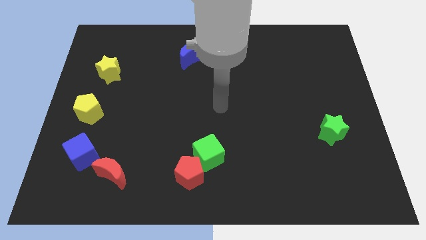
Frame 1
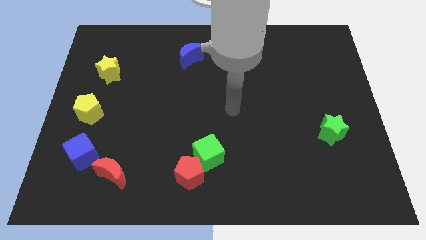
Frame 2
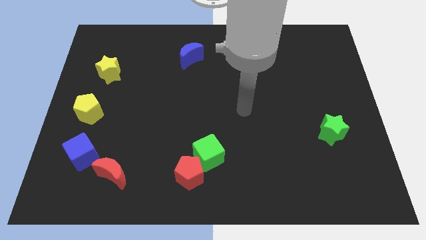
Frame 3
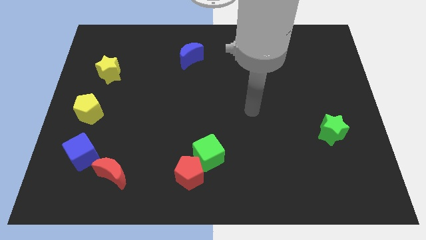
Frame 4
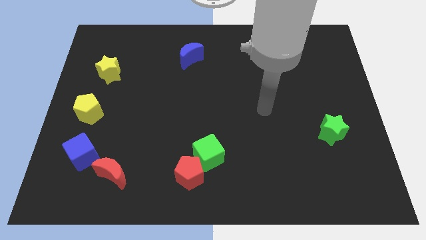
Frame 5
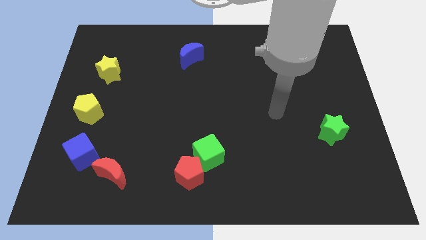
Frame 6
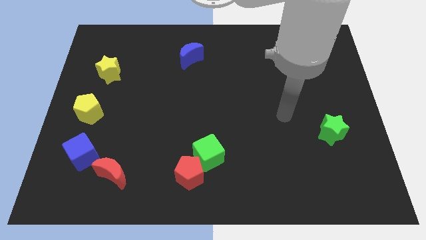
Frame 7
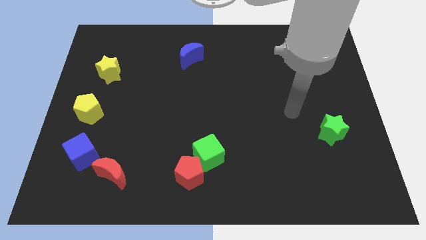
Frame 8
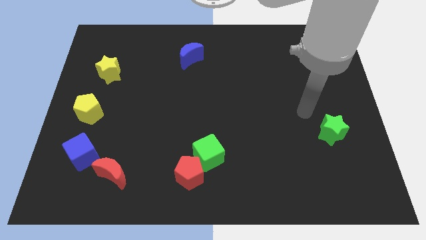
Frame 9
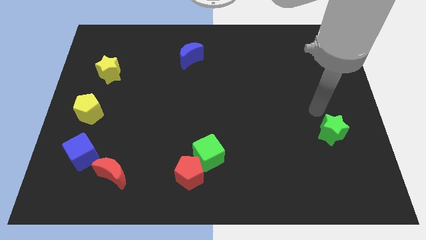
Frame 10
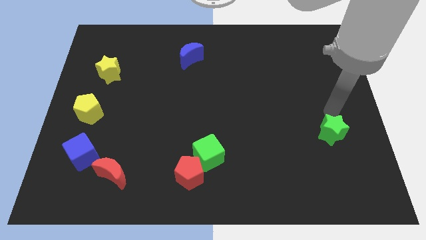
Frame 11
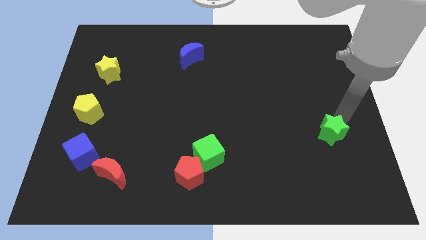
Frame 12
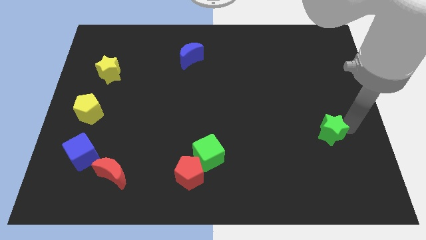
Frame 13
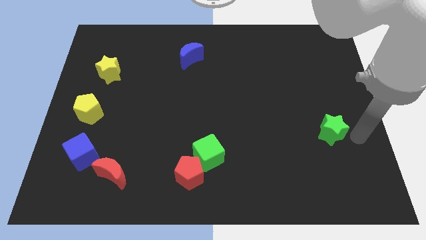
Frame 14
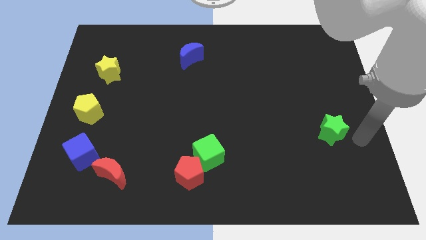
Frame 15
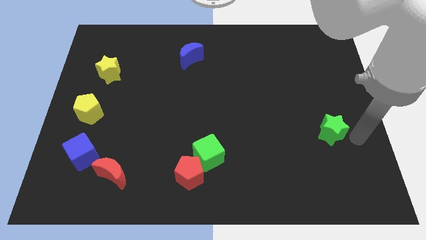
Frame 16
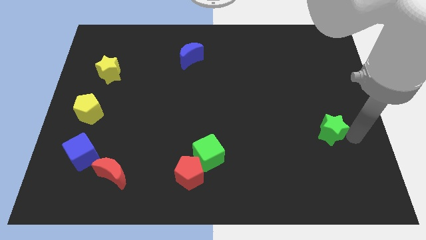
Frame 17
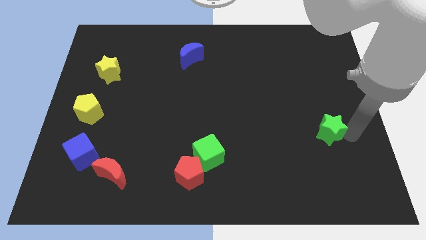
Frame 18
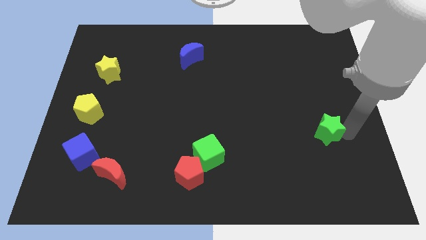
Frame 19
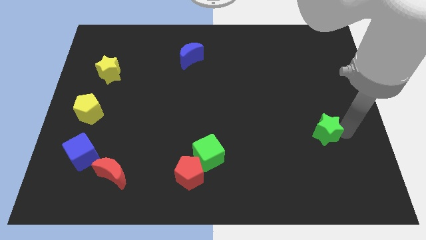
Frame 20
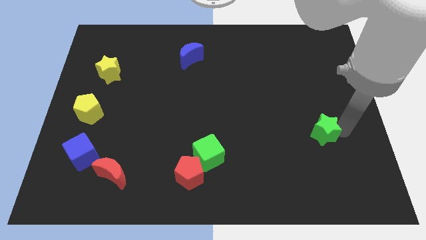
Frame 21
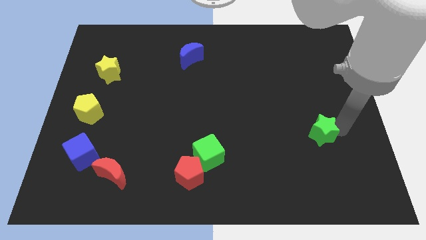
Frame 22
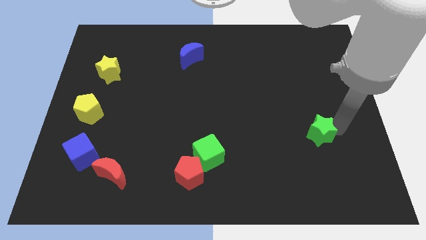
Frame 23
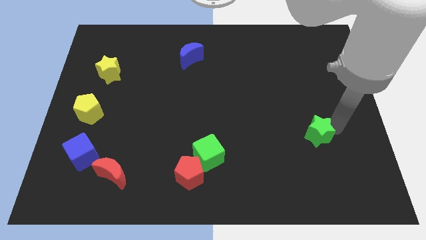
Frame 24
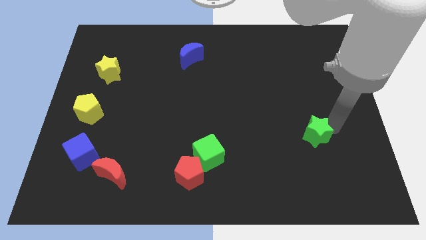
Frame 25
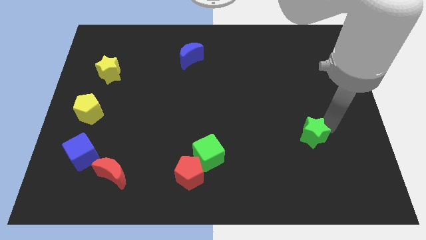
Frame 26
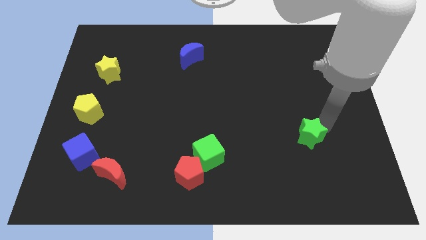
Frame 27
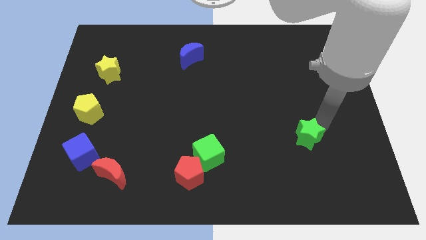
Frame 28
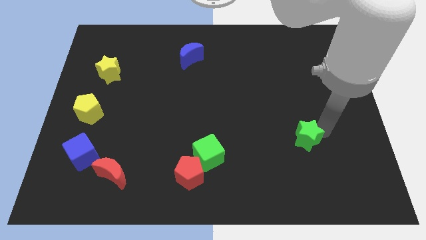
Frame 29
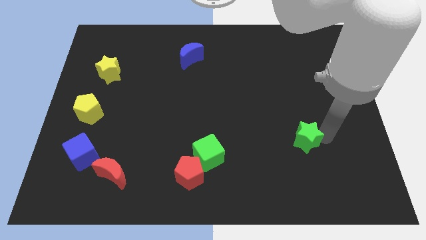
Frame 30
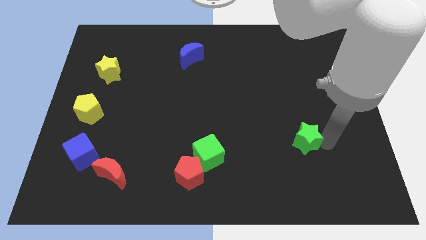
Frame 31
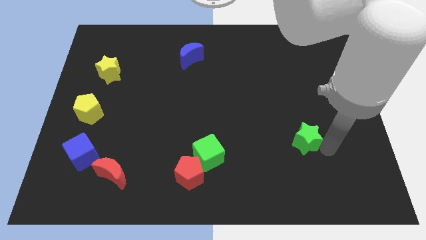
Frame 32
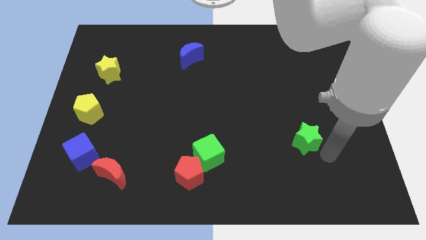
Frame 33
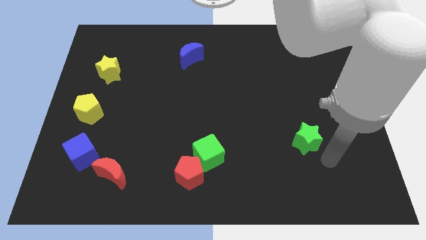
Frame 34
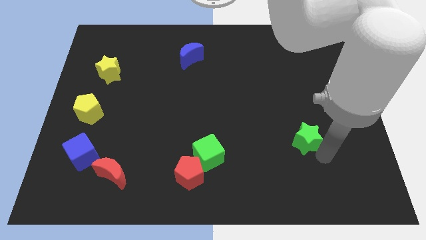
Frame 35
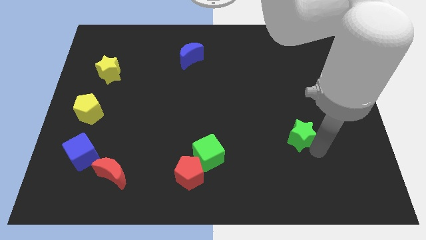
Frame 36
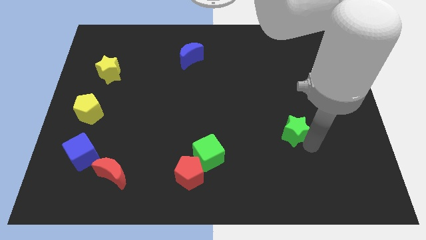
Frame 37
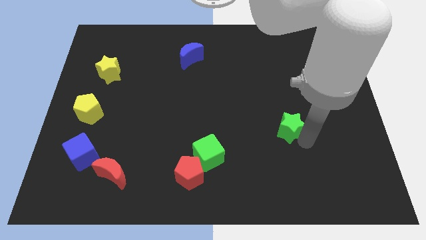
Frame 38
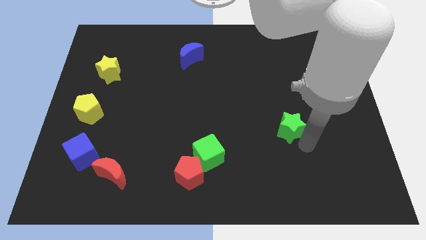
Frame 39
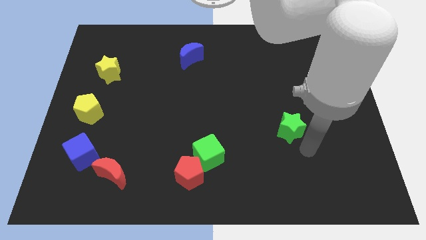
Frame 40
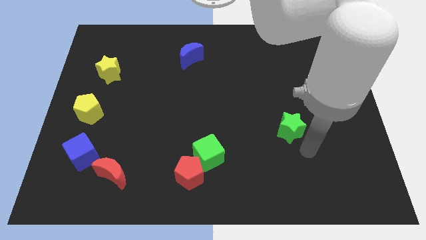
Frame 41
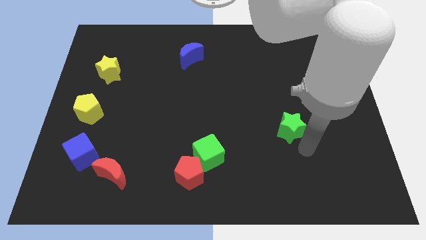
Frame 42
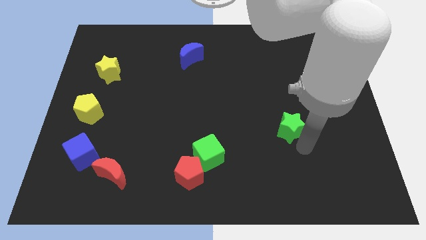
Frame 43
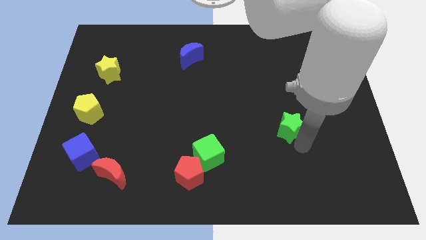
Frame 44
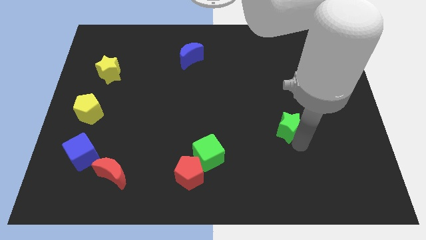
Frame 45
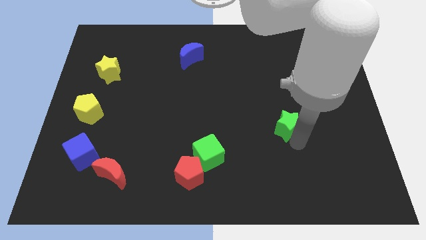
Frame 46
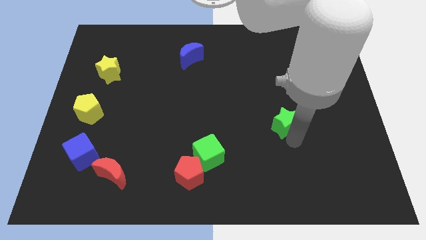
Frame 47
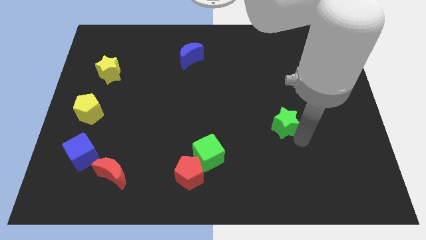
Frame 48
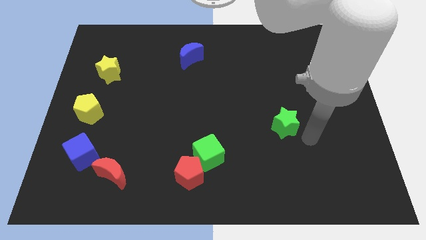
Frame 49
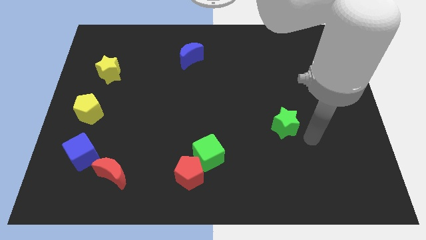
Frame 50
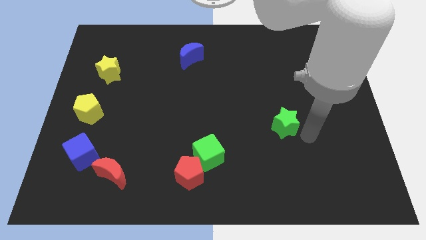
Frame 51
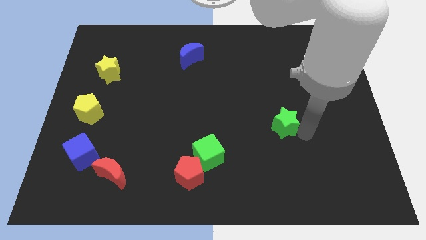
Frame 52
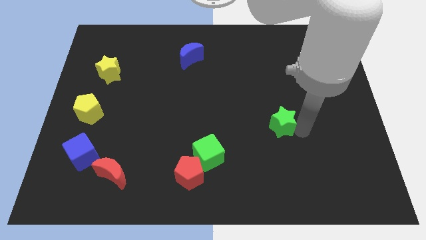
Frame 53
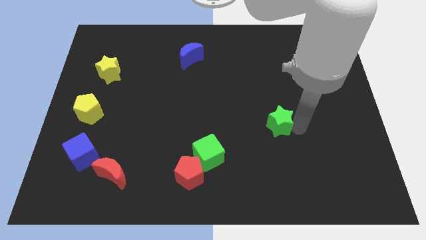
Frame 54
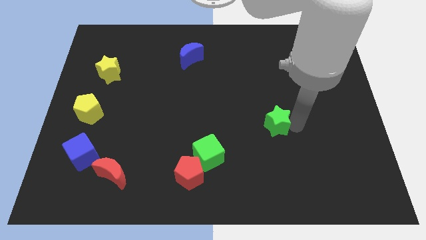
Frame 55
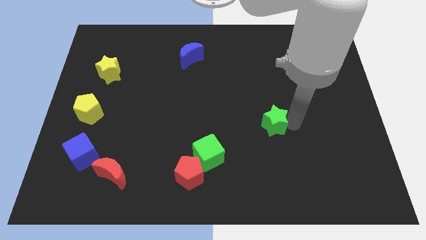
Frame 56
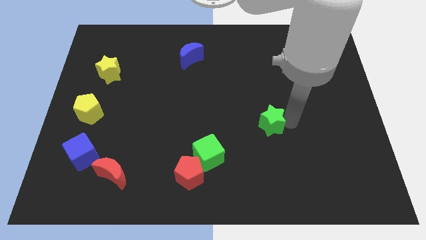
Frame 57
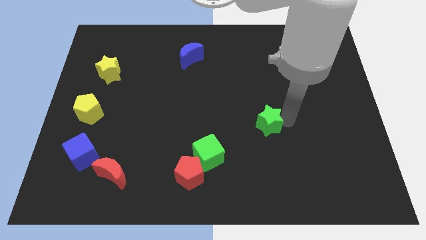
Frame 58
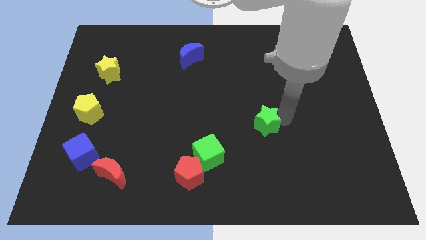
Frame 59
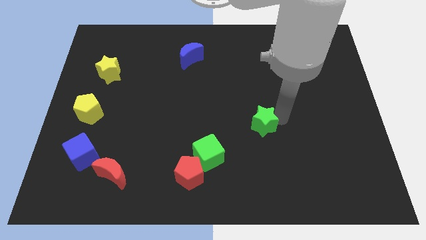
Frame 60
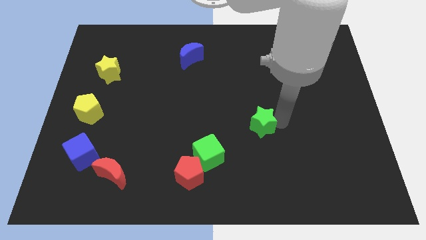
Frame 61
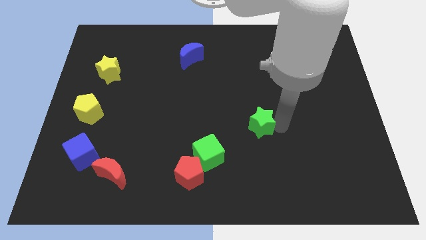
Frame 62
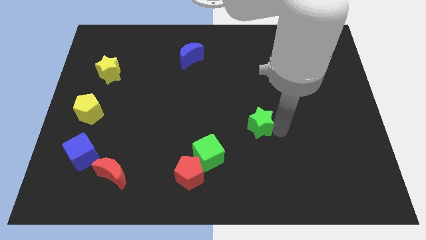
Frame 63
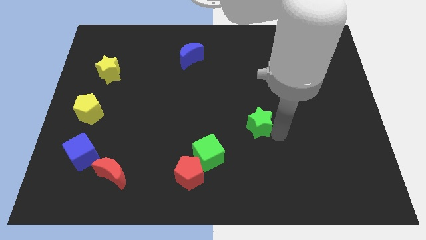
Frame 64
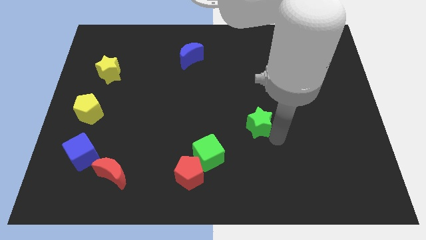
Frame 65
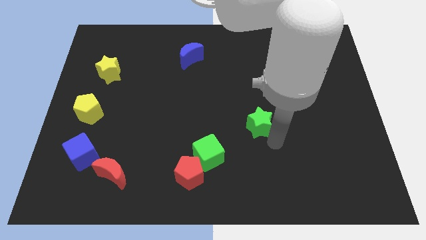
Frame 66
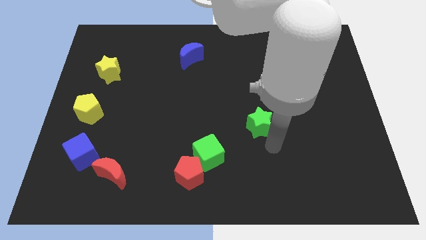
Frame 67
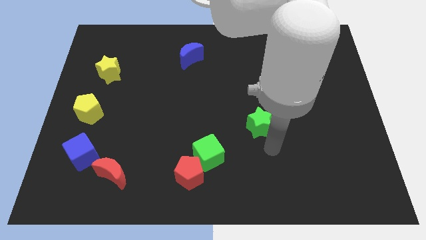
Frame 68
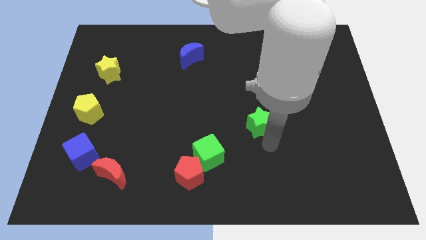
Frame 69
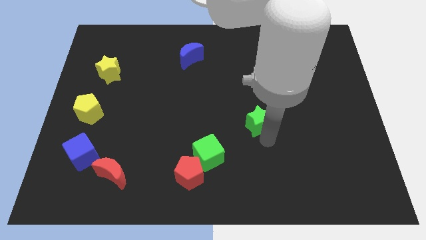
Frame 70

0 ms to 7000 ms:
move the green star to the center
